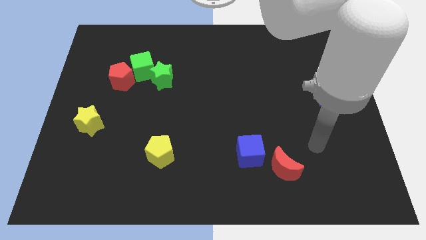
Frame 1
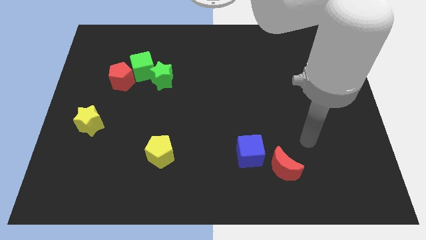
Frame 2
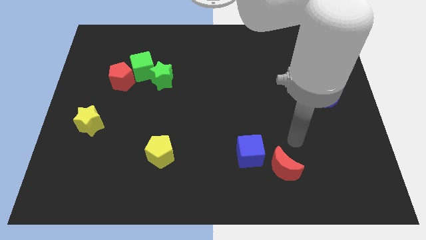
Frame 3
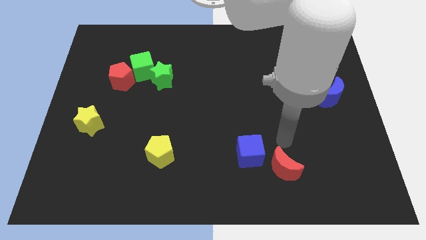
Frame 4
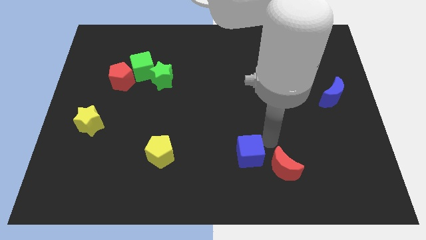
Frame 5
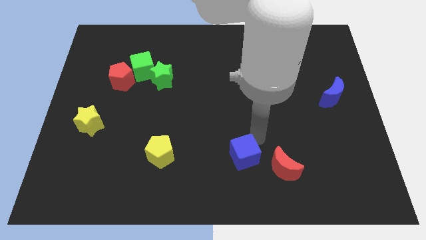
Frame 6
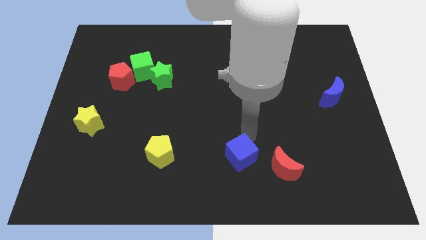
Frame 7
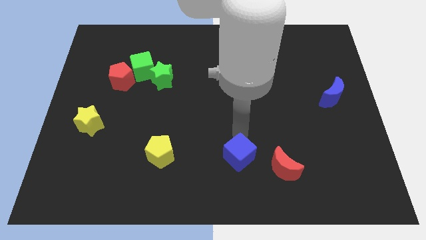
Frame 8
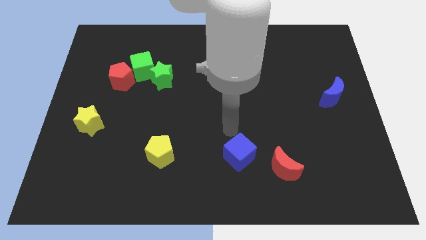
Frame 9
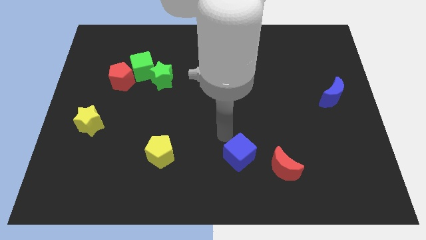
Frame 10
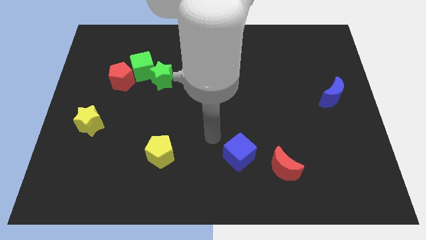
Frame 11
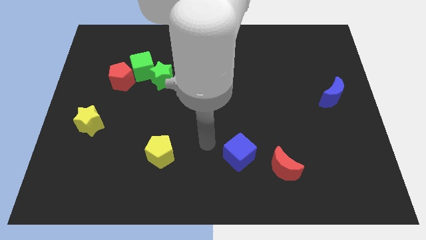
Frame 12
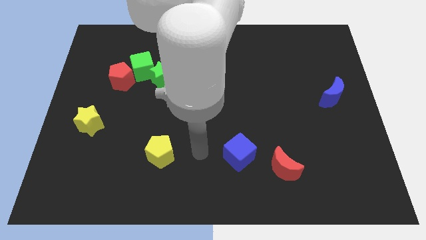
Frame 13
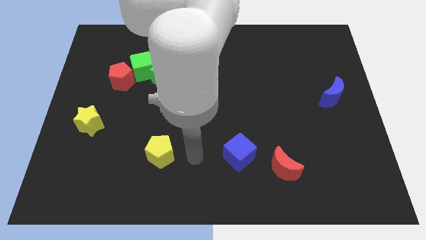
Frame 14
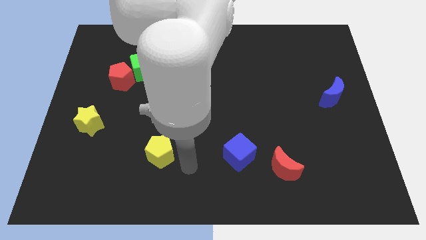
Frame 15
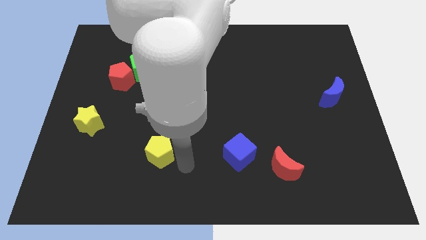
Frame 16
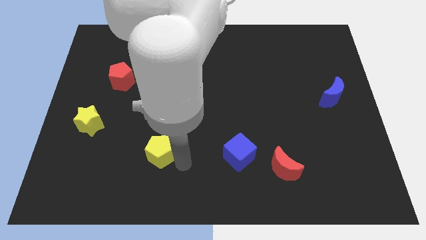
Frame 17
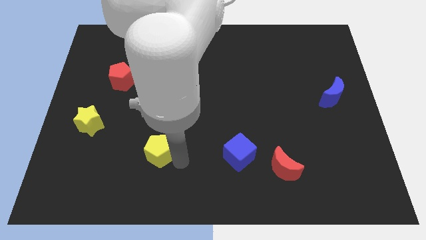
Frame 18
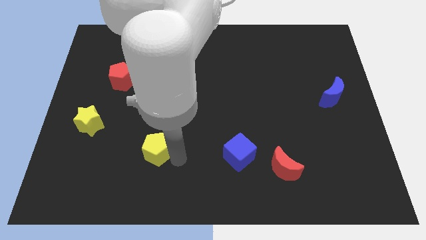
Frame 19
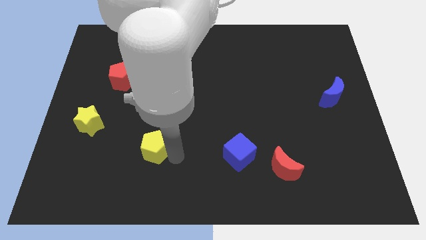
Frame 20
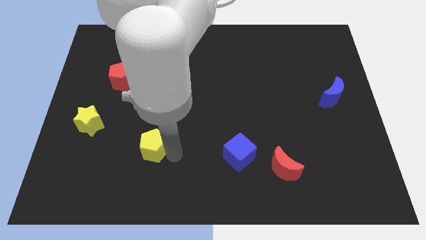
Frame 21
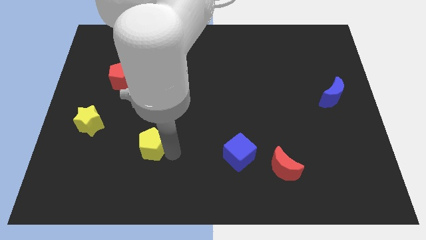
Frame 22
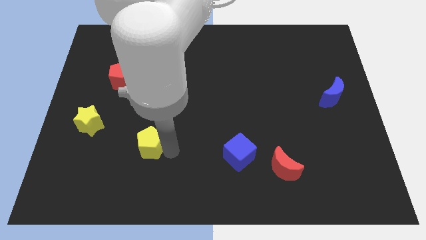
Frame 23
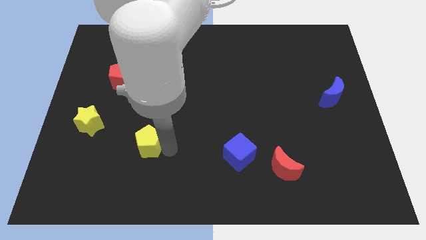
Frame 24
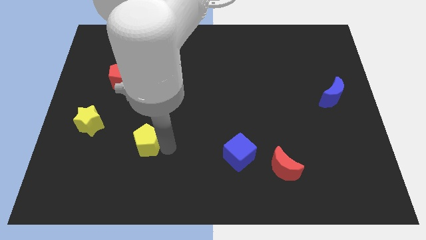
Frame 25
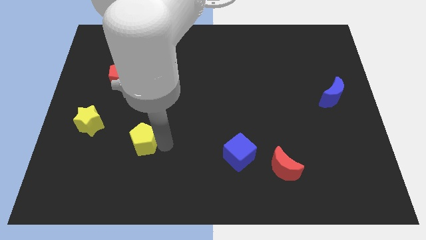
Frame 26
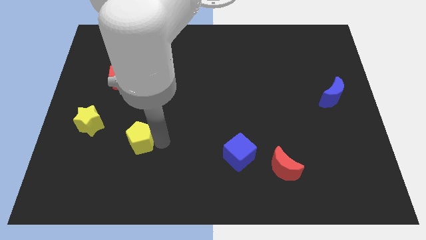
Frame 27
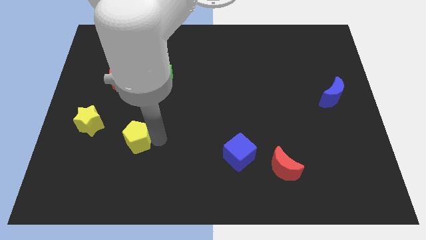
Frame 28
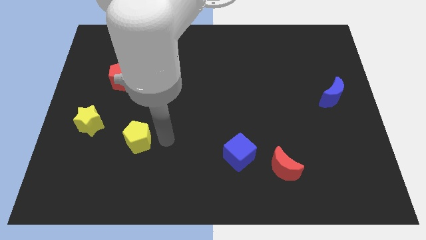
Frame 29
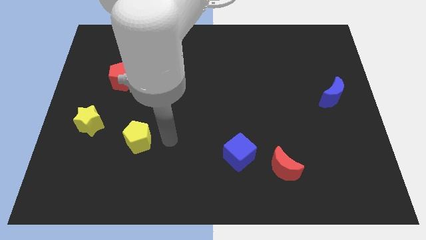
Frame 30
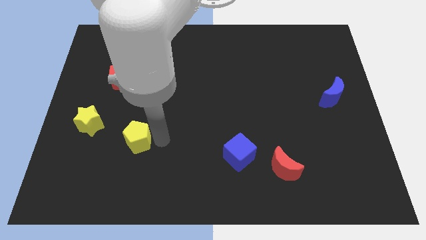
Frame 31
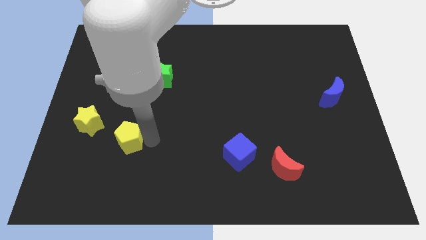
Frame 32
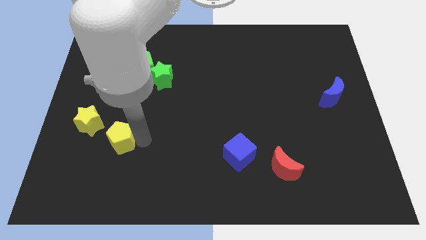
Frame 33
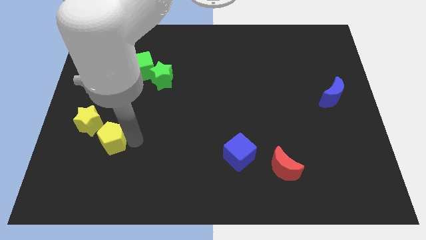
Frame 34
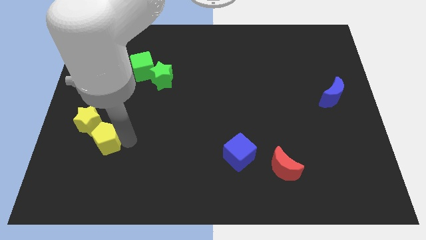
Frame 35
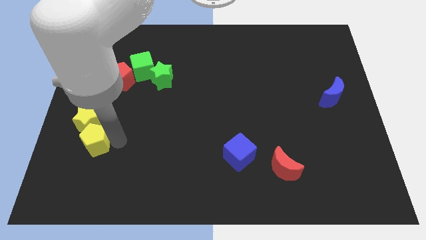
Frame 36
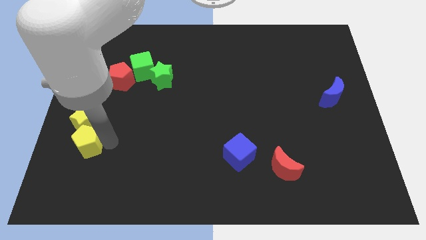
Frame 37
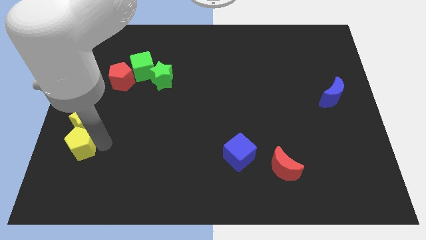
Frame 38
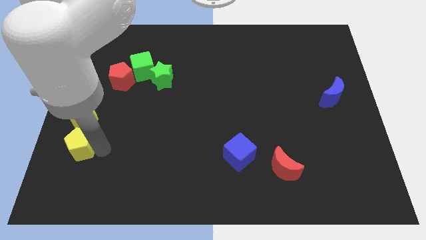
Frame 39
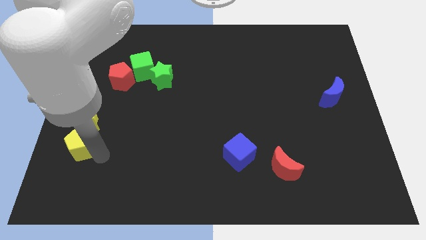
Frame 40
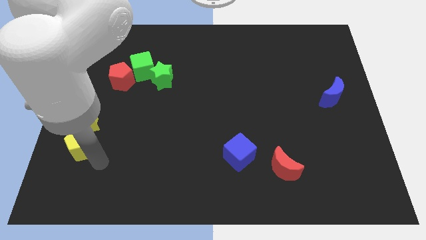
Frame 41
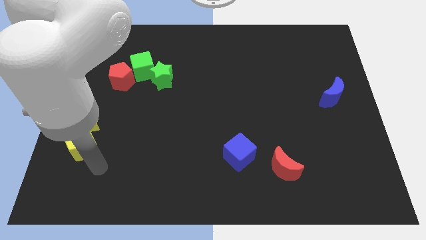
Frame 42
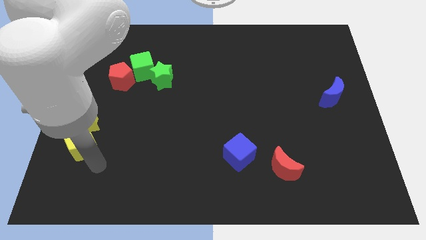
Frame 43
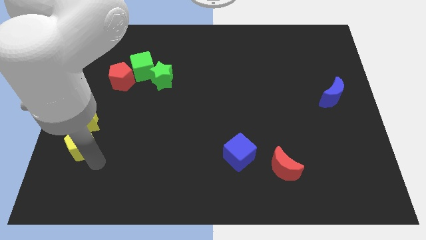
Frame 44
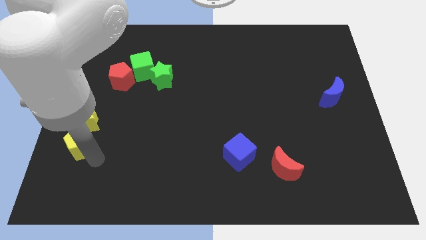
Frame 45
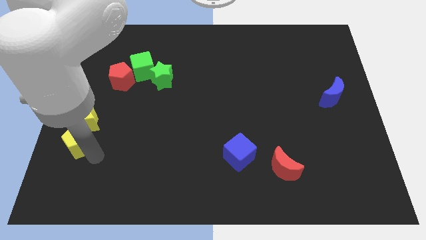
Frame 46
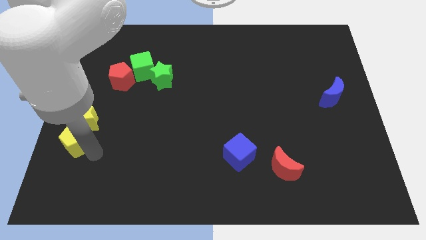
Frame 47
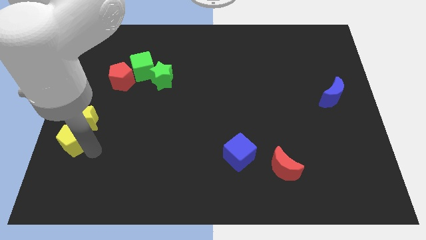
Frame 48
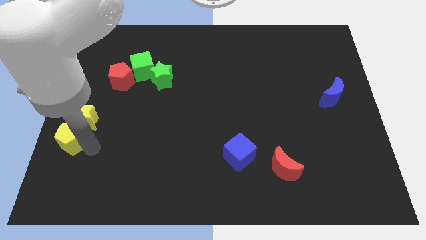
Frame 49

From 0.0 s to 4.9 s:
push the yellow pentagon to the left side

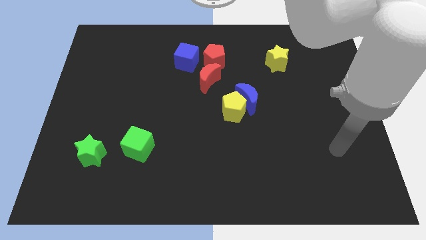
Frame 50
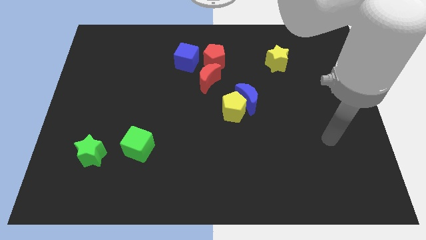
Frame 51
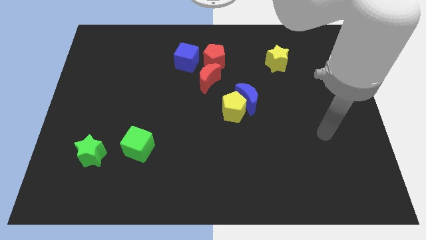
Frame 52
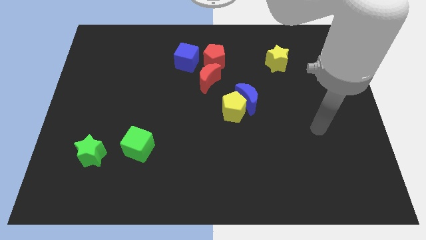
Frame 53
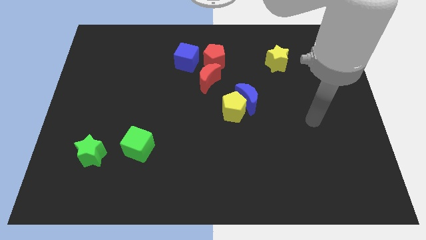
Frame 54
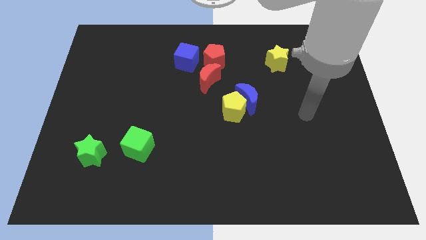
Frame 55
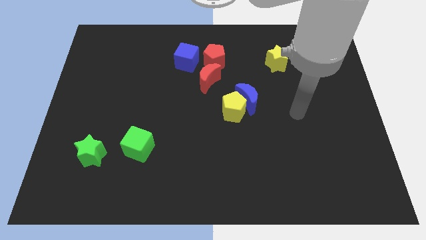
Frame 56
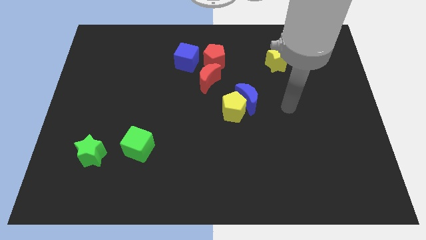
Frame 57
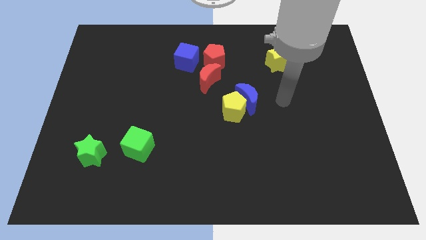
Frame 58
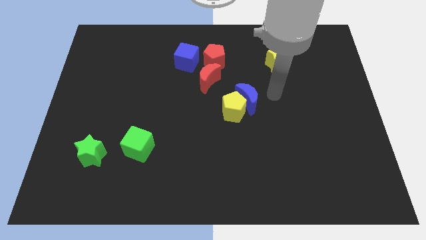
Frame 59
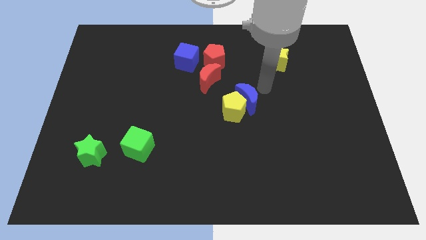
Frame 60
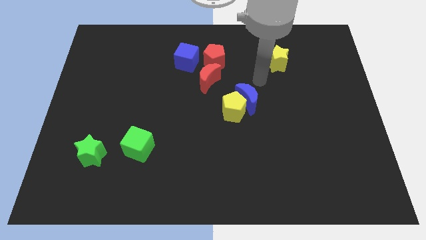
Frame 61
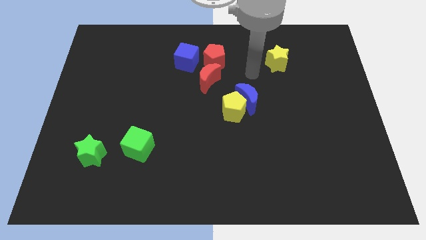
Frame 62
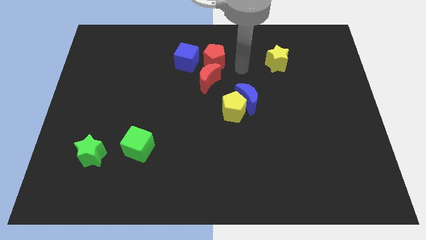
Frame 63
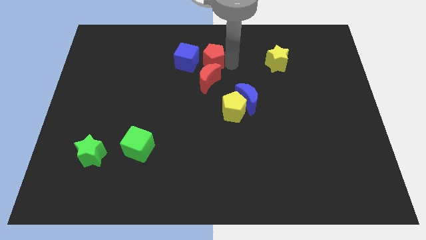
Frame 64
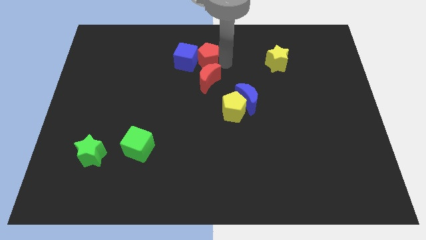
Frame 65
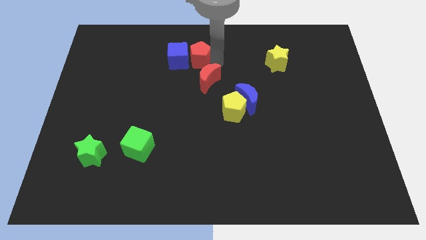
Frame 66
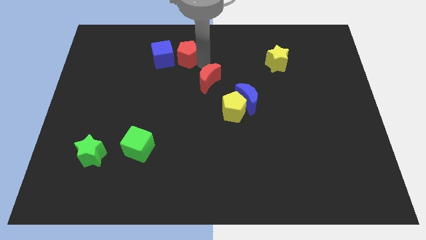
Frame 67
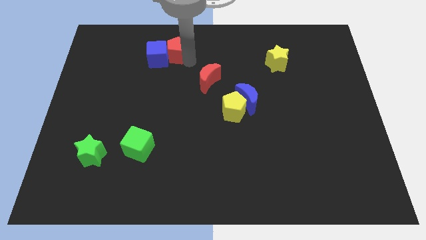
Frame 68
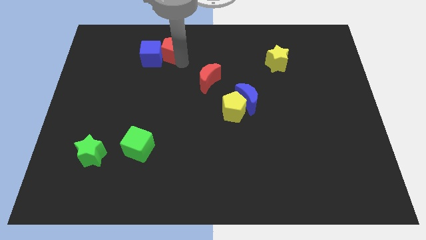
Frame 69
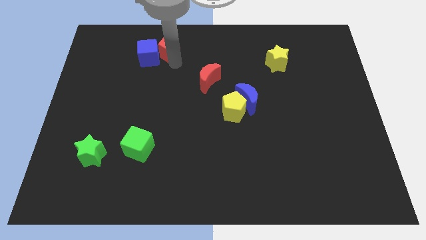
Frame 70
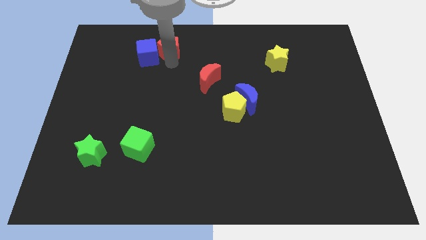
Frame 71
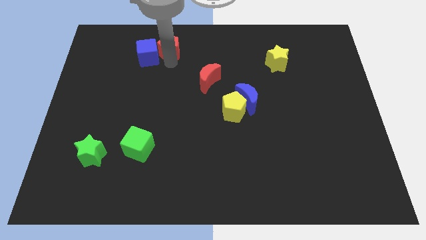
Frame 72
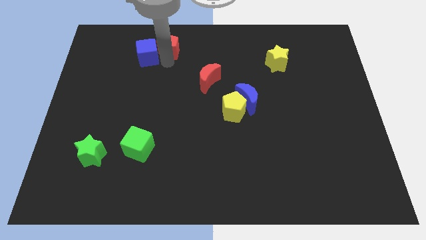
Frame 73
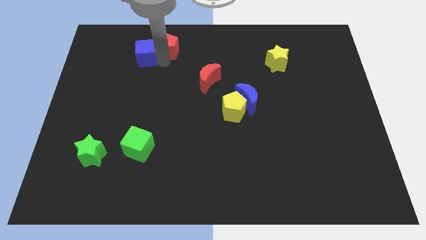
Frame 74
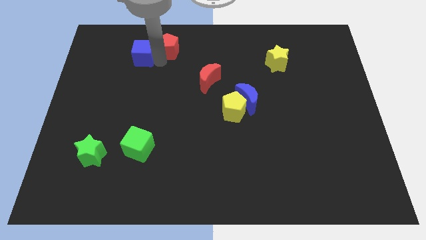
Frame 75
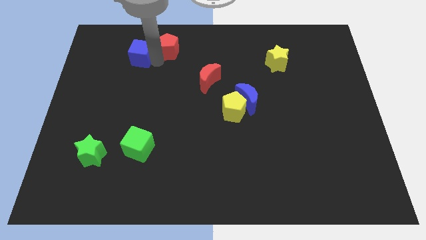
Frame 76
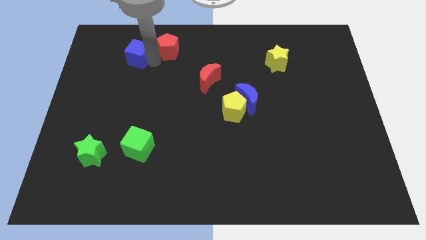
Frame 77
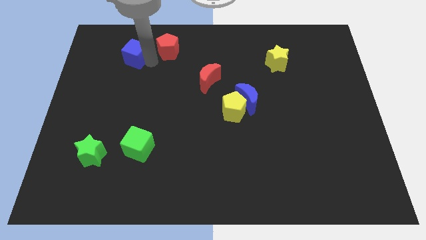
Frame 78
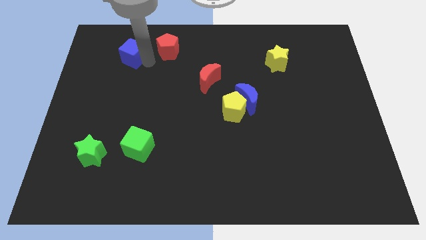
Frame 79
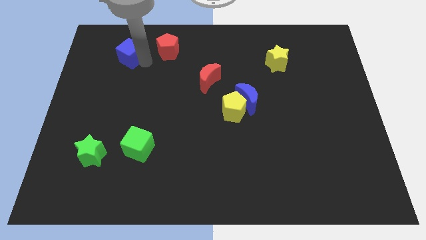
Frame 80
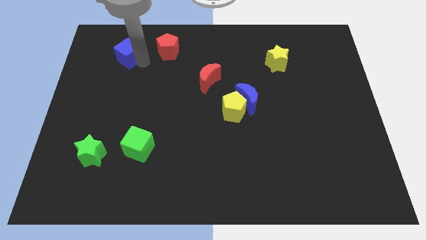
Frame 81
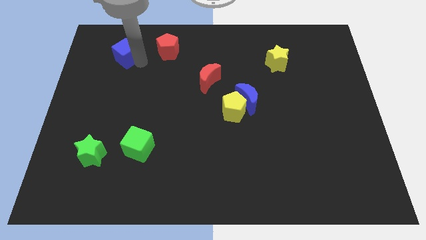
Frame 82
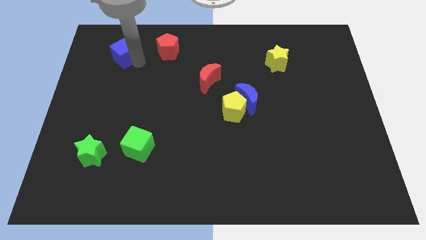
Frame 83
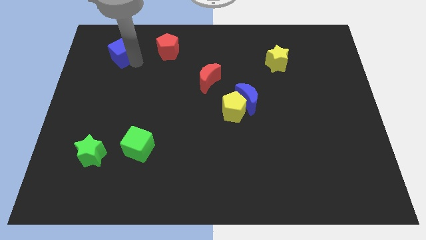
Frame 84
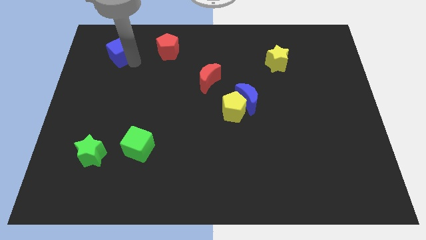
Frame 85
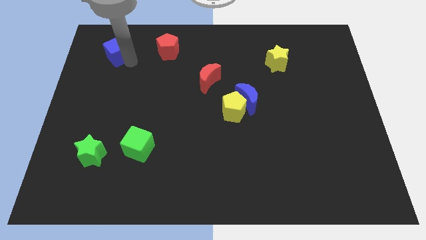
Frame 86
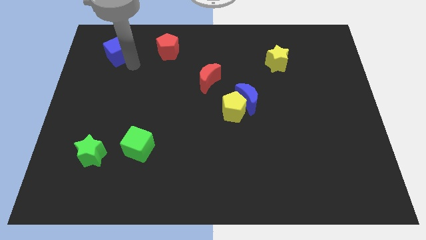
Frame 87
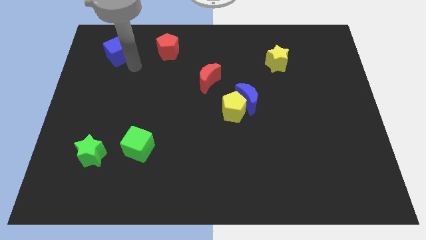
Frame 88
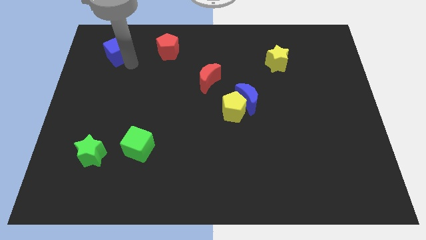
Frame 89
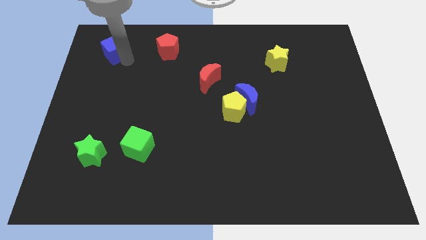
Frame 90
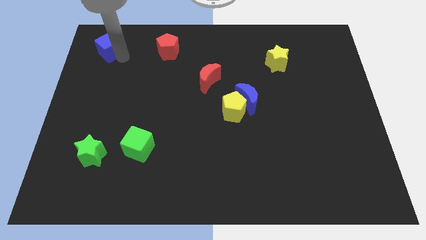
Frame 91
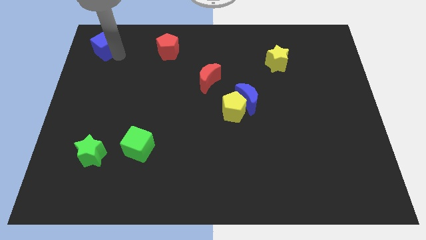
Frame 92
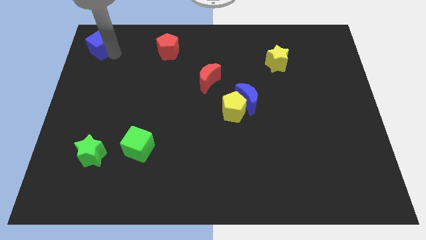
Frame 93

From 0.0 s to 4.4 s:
push the blue cube to the top left corner
